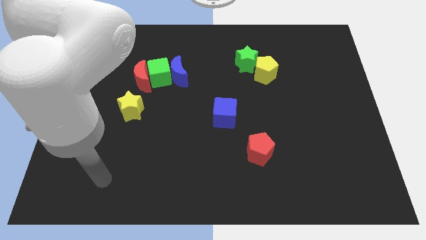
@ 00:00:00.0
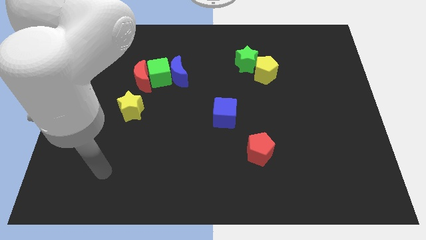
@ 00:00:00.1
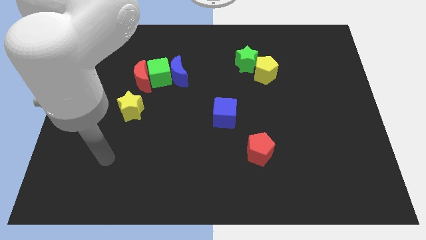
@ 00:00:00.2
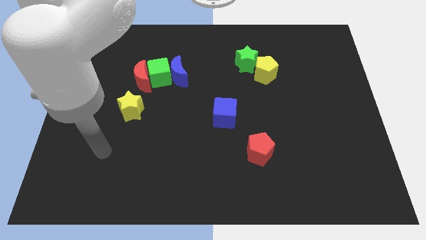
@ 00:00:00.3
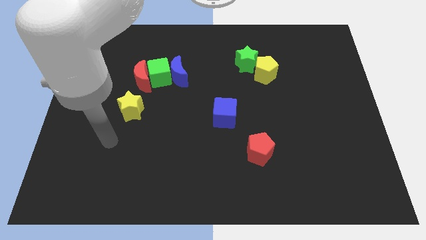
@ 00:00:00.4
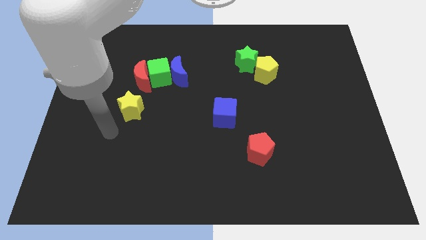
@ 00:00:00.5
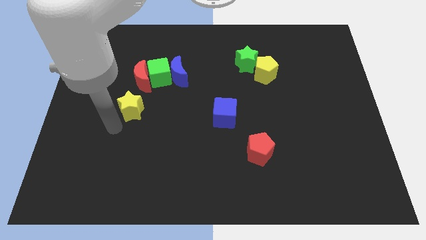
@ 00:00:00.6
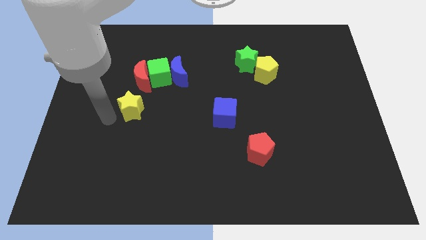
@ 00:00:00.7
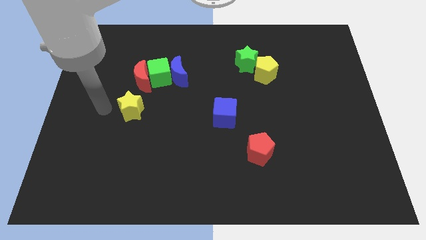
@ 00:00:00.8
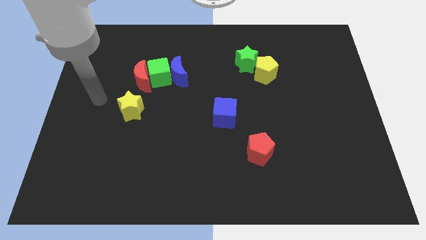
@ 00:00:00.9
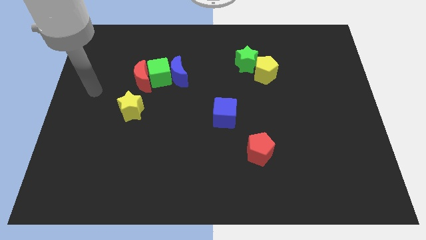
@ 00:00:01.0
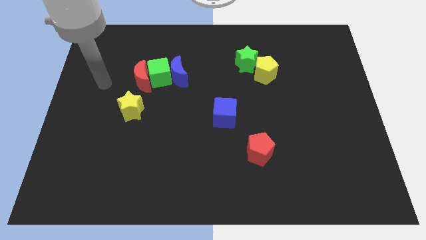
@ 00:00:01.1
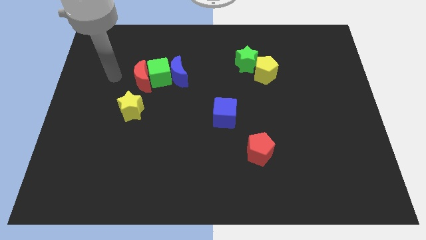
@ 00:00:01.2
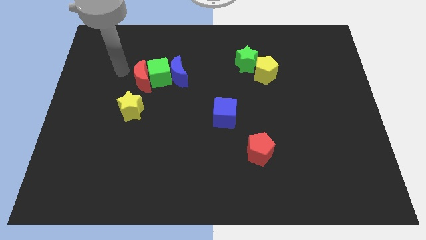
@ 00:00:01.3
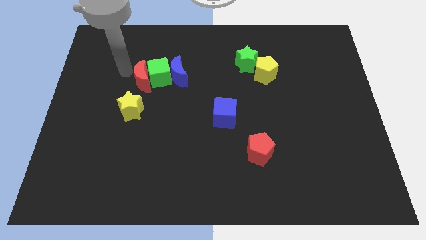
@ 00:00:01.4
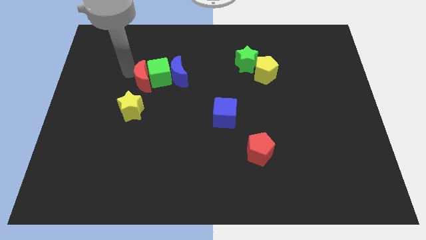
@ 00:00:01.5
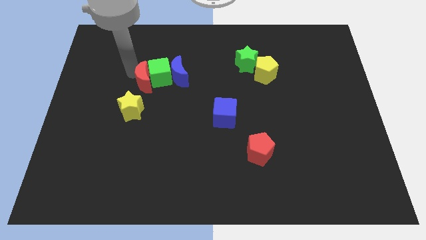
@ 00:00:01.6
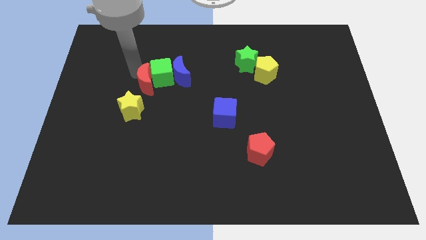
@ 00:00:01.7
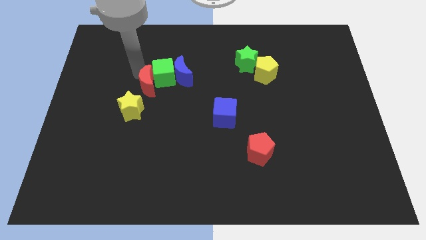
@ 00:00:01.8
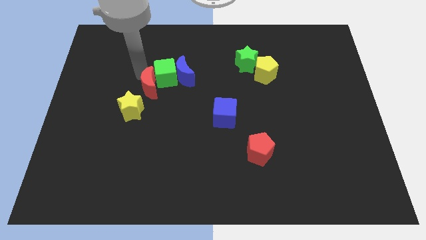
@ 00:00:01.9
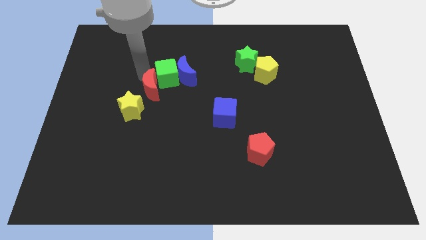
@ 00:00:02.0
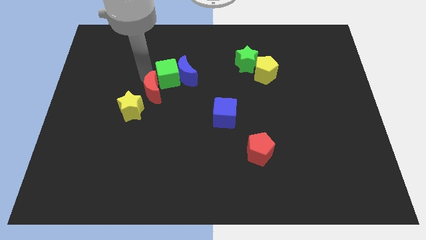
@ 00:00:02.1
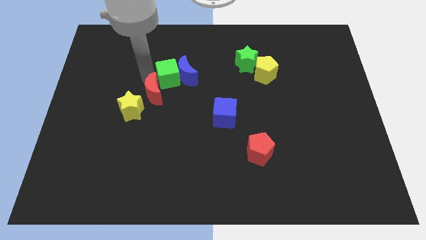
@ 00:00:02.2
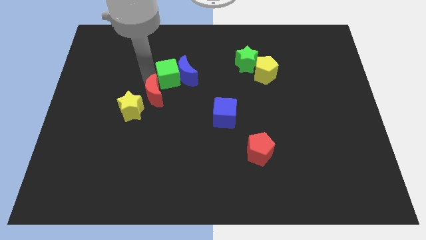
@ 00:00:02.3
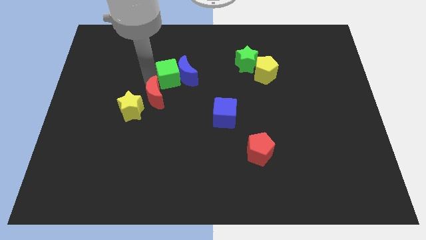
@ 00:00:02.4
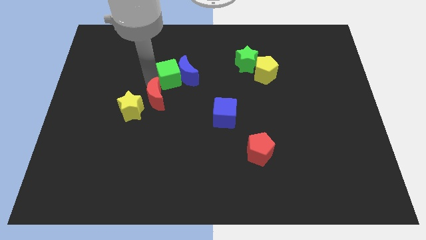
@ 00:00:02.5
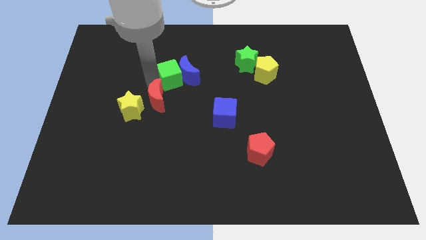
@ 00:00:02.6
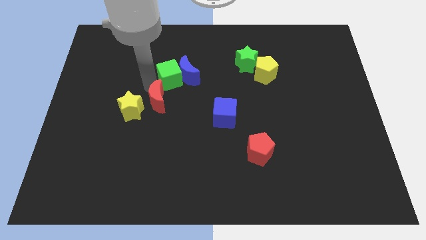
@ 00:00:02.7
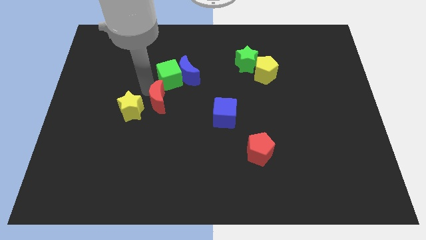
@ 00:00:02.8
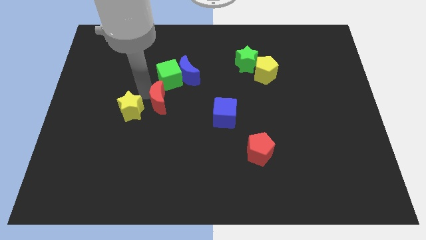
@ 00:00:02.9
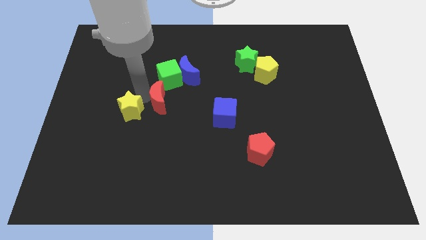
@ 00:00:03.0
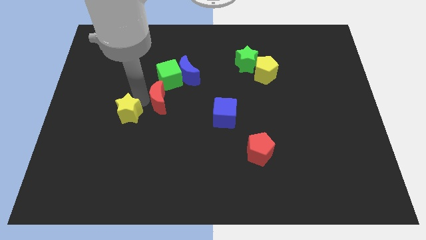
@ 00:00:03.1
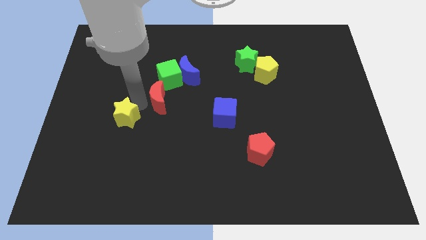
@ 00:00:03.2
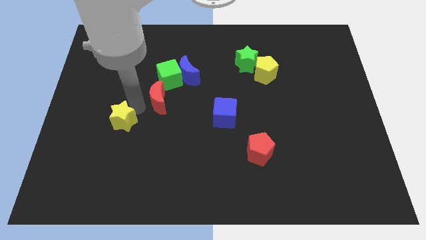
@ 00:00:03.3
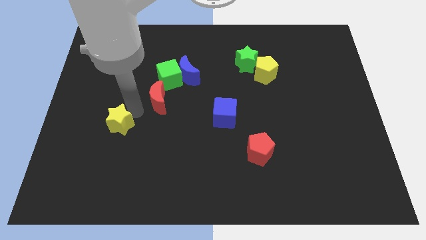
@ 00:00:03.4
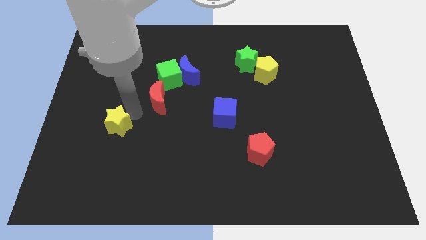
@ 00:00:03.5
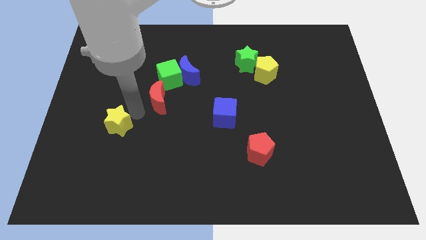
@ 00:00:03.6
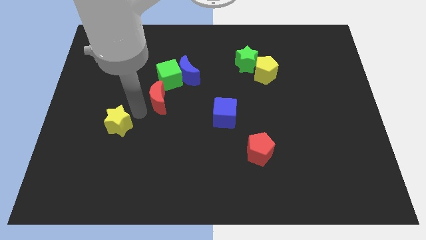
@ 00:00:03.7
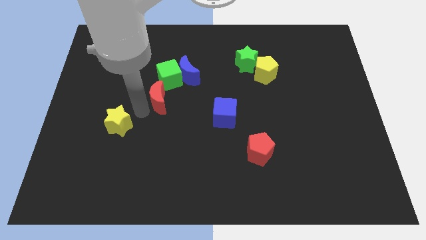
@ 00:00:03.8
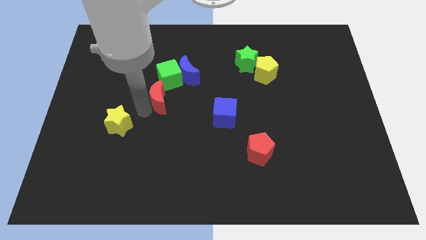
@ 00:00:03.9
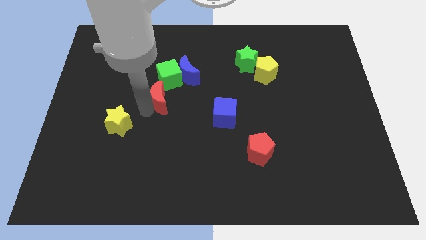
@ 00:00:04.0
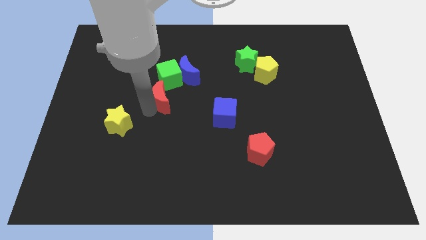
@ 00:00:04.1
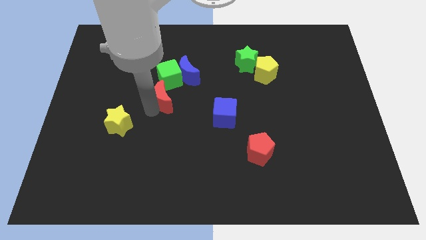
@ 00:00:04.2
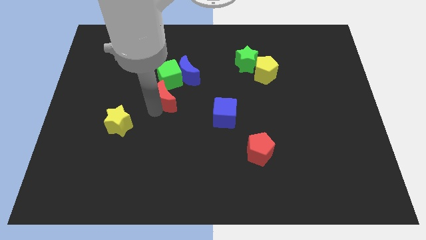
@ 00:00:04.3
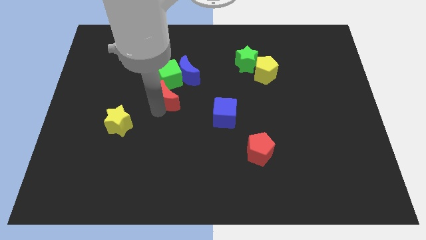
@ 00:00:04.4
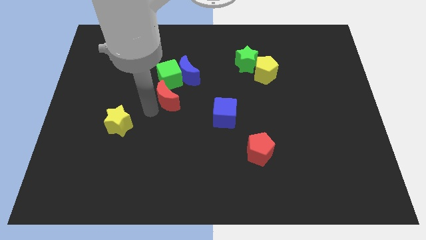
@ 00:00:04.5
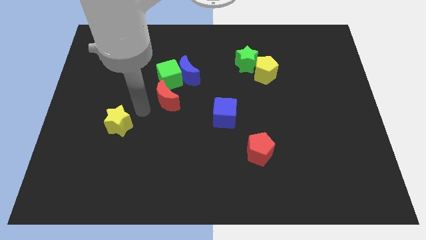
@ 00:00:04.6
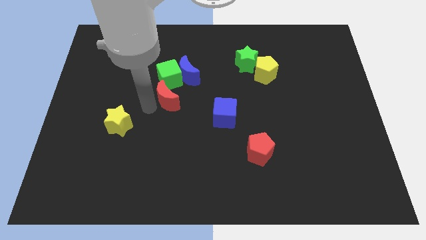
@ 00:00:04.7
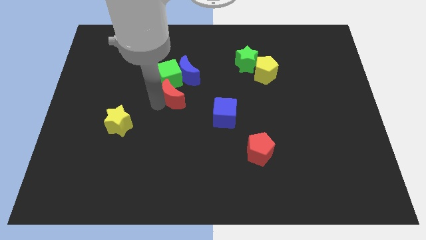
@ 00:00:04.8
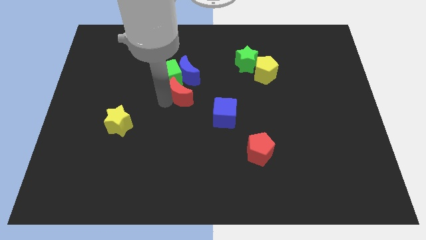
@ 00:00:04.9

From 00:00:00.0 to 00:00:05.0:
push the red moon slightly right

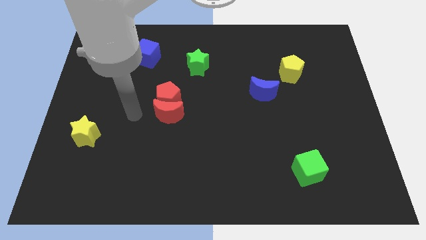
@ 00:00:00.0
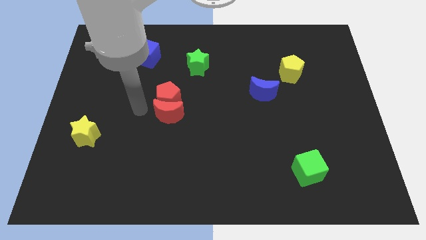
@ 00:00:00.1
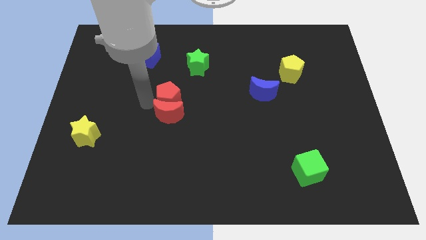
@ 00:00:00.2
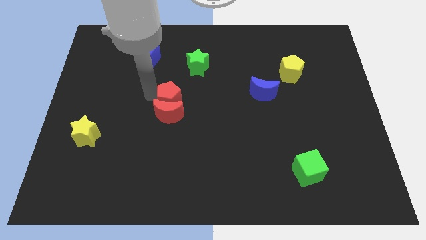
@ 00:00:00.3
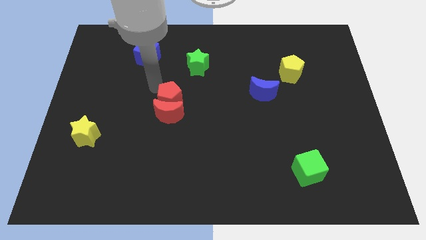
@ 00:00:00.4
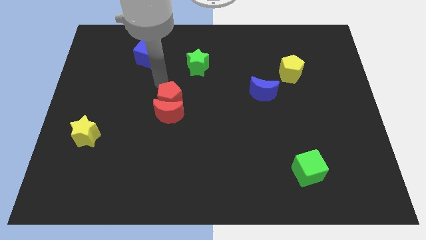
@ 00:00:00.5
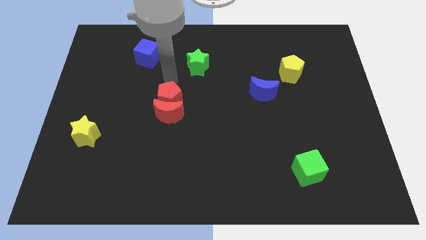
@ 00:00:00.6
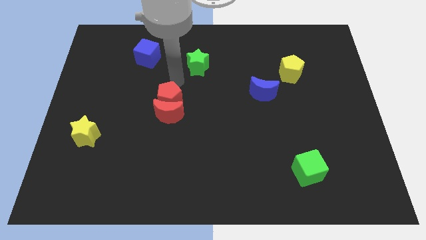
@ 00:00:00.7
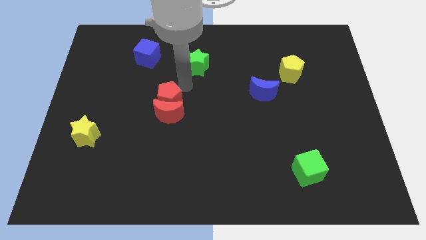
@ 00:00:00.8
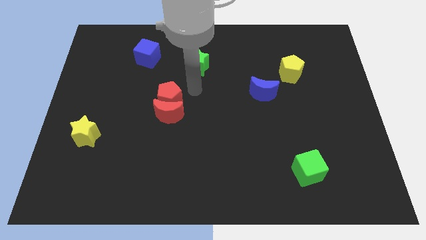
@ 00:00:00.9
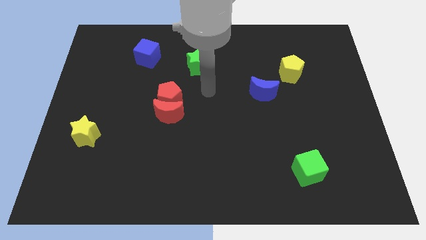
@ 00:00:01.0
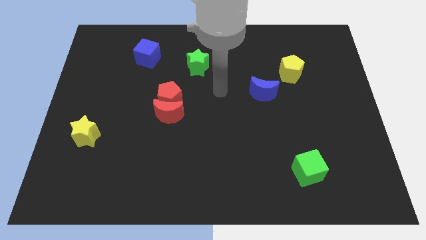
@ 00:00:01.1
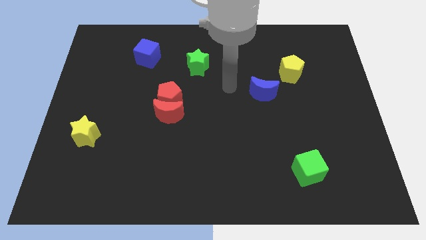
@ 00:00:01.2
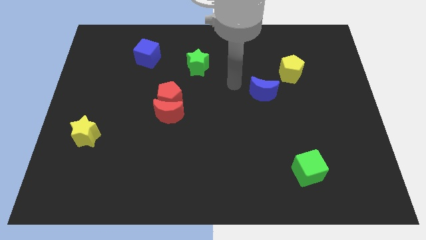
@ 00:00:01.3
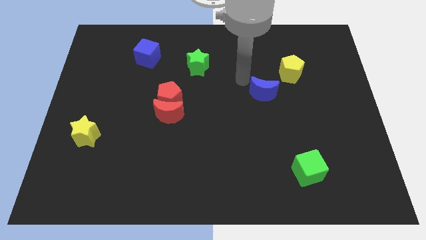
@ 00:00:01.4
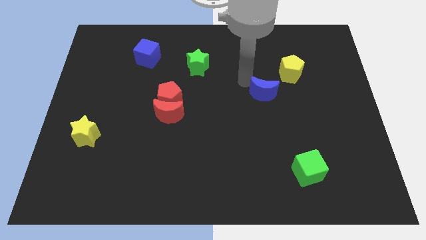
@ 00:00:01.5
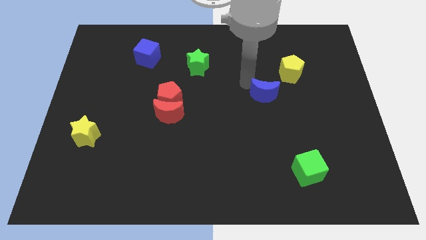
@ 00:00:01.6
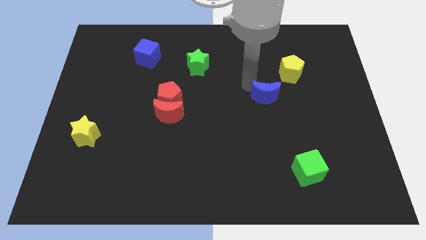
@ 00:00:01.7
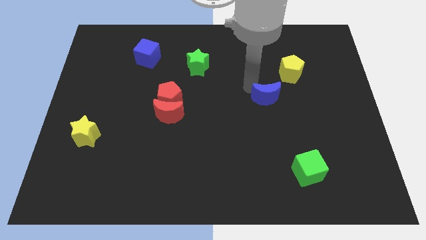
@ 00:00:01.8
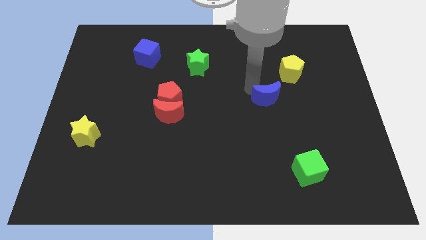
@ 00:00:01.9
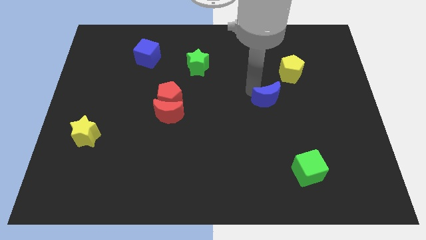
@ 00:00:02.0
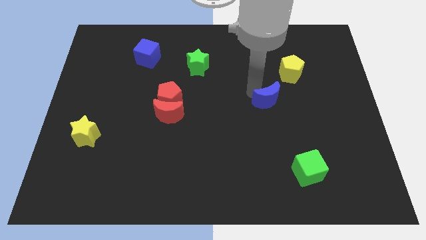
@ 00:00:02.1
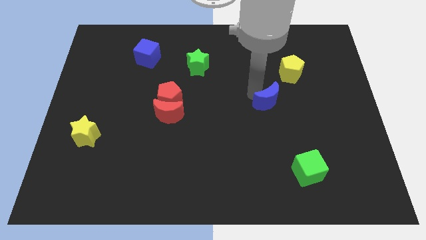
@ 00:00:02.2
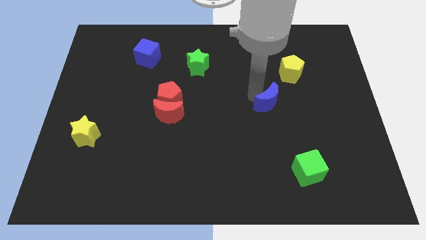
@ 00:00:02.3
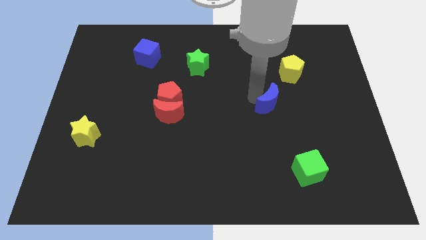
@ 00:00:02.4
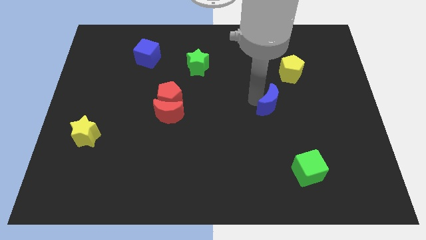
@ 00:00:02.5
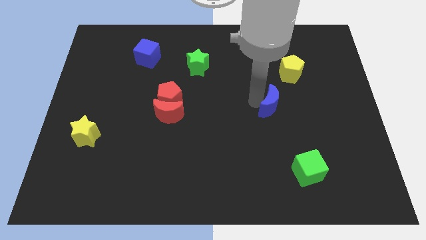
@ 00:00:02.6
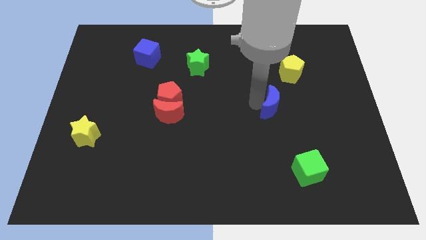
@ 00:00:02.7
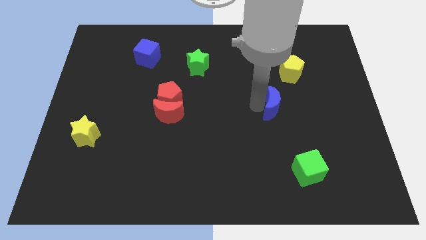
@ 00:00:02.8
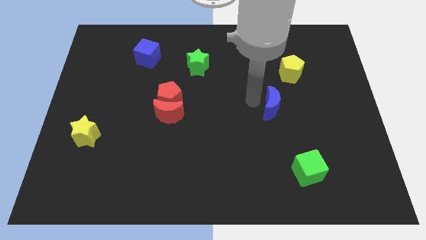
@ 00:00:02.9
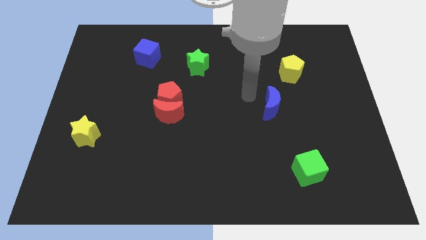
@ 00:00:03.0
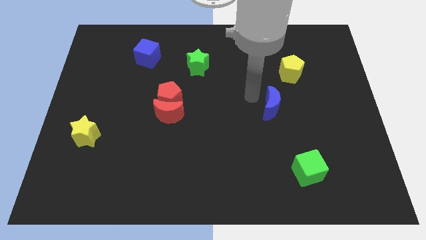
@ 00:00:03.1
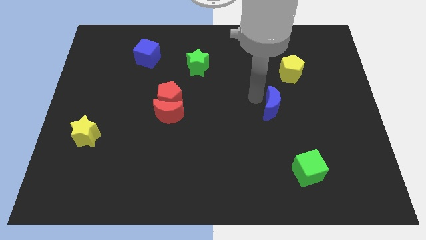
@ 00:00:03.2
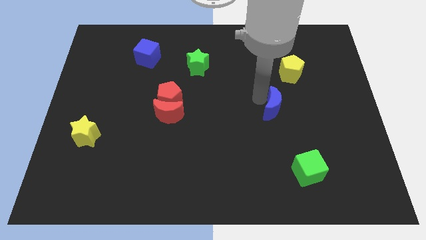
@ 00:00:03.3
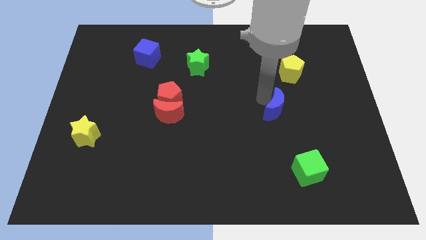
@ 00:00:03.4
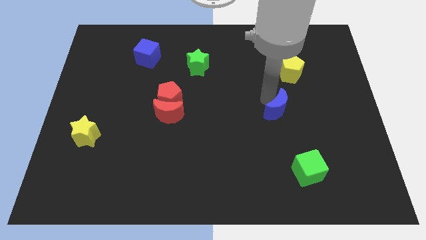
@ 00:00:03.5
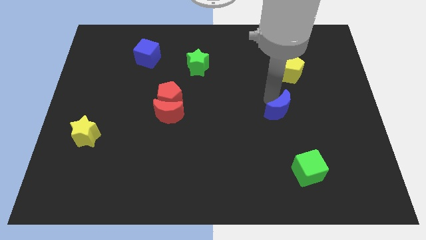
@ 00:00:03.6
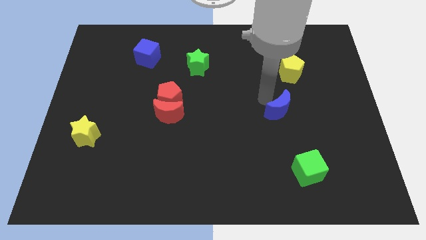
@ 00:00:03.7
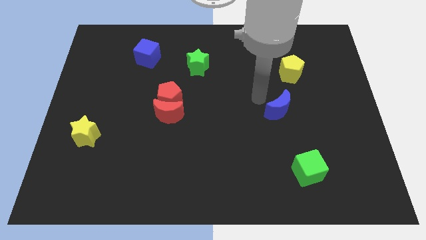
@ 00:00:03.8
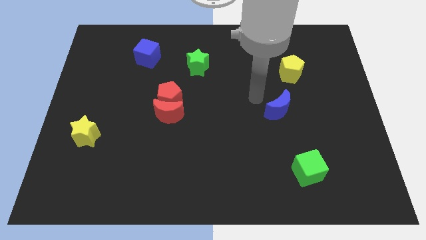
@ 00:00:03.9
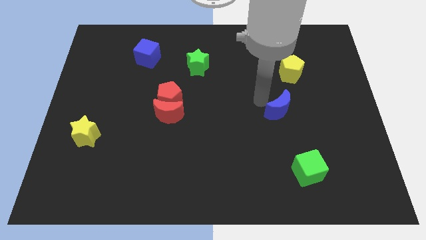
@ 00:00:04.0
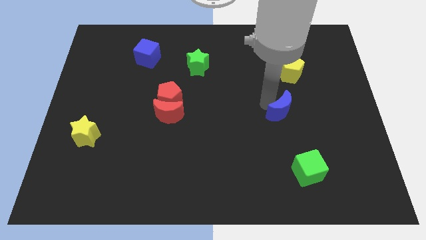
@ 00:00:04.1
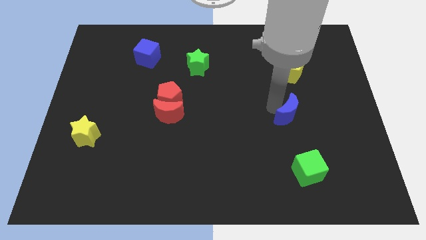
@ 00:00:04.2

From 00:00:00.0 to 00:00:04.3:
push the blue moon downwards and right a little
